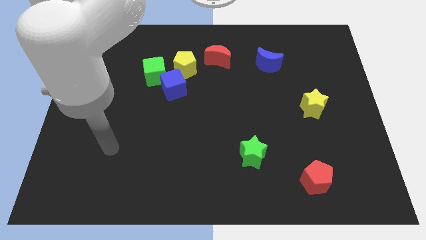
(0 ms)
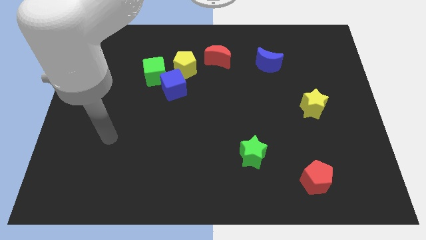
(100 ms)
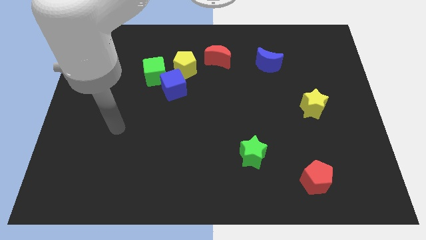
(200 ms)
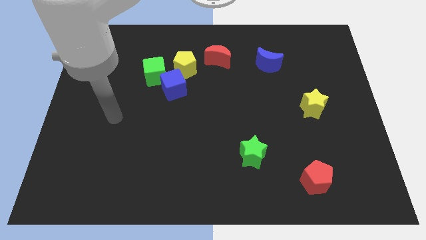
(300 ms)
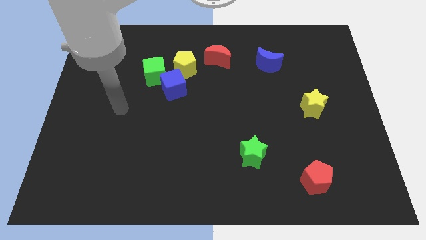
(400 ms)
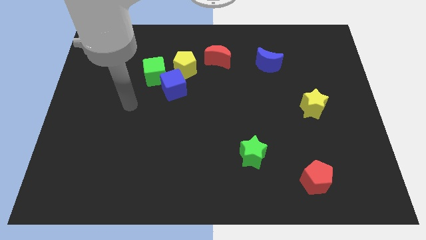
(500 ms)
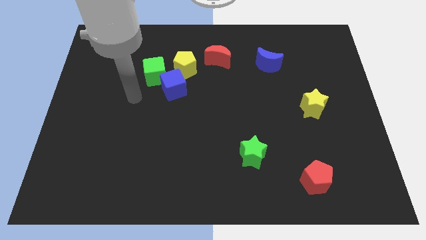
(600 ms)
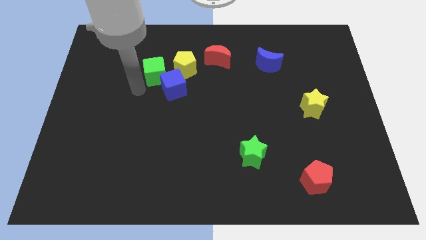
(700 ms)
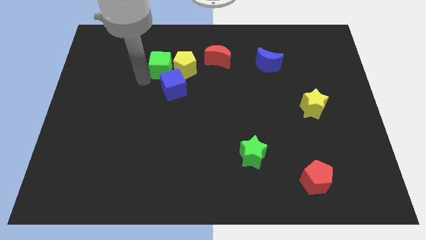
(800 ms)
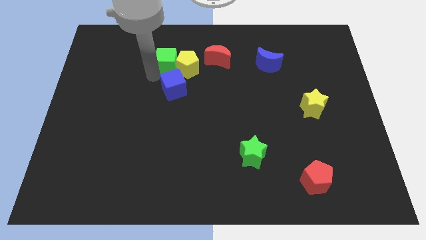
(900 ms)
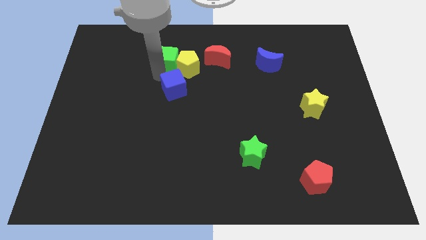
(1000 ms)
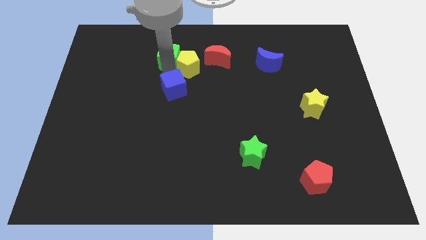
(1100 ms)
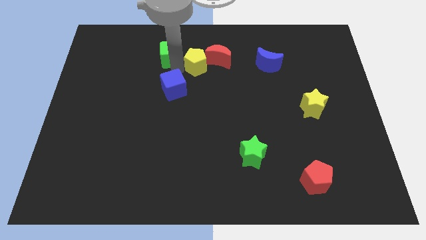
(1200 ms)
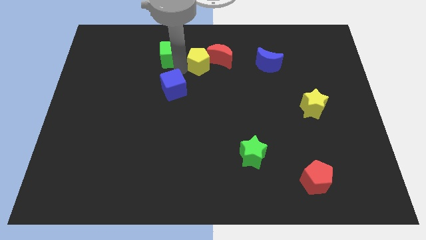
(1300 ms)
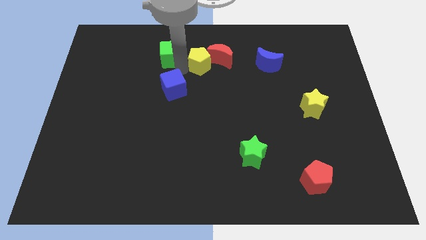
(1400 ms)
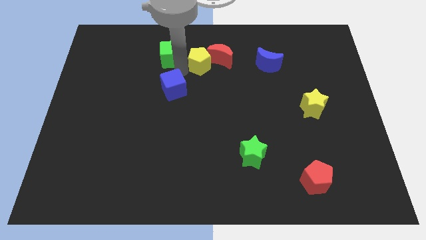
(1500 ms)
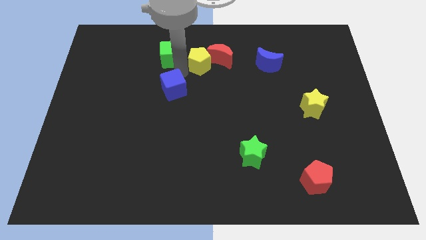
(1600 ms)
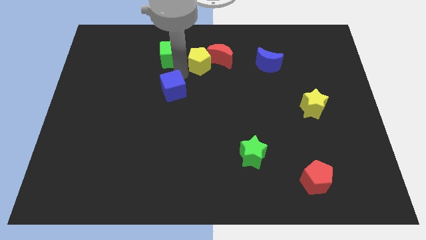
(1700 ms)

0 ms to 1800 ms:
move the blue cube away from the green cube and yellow pentagon

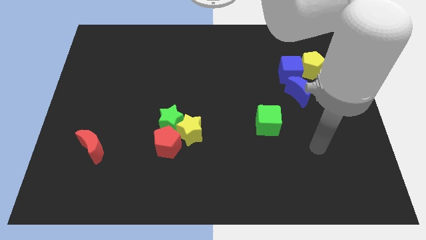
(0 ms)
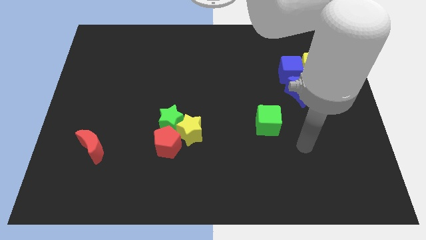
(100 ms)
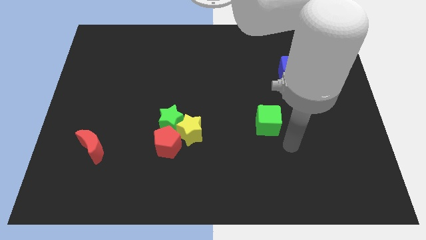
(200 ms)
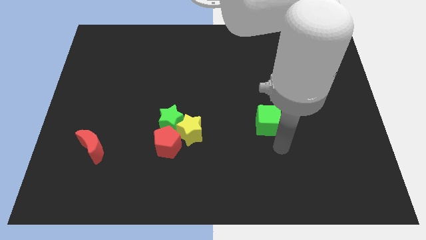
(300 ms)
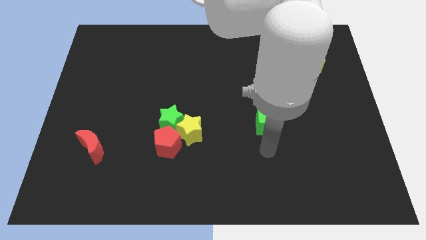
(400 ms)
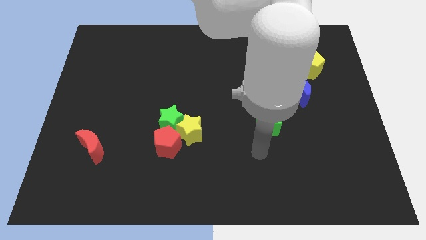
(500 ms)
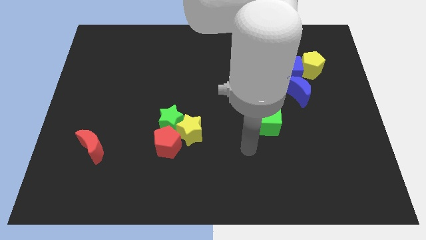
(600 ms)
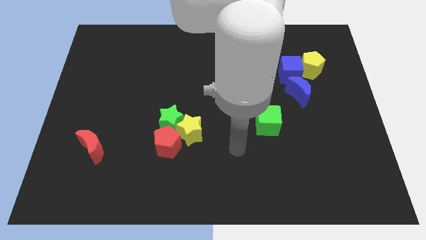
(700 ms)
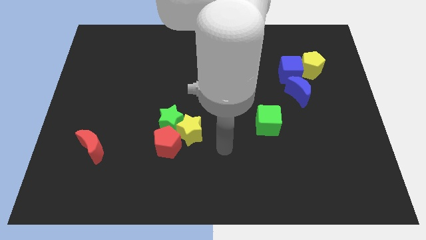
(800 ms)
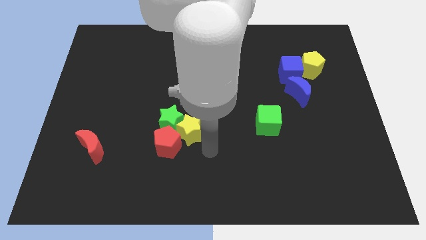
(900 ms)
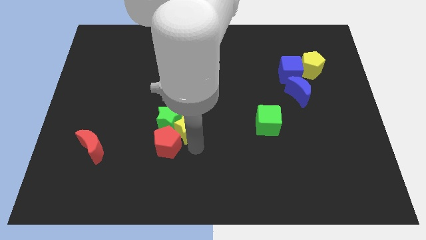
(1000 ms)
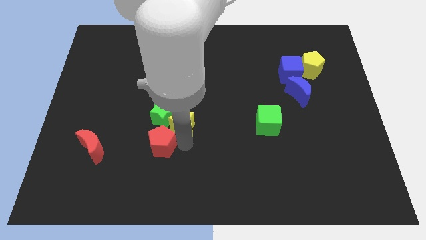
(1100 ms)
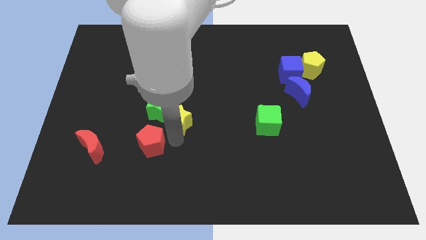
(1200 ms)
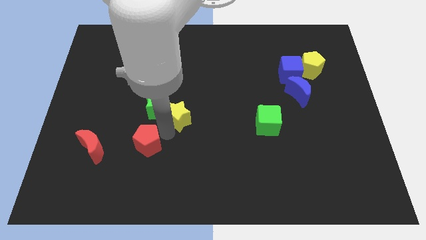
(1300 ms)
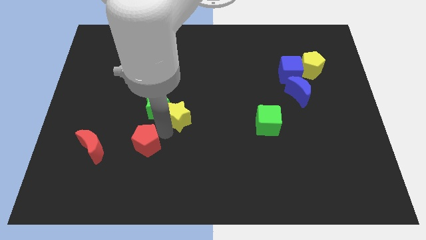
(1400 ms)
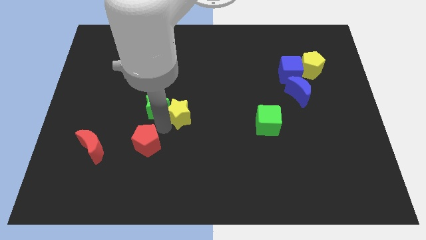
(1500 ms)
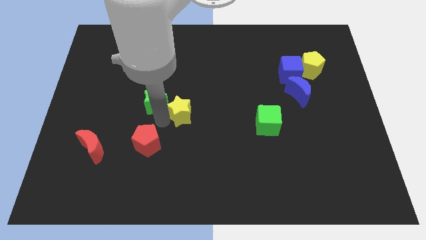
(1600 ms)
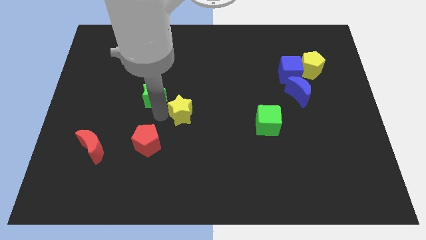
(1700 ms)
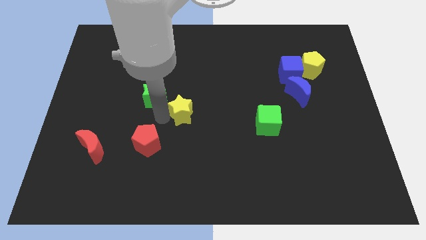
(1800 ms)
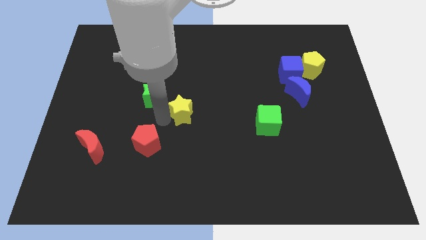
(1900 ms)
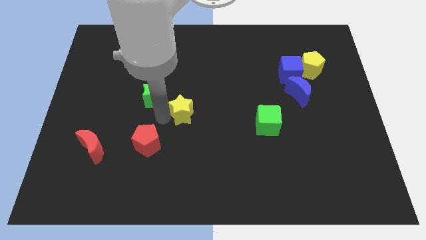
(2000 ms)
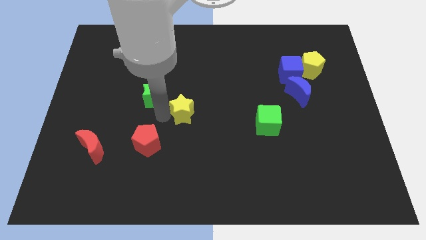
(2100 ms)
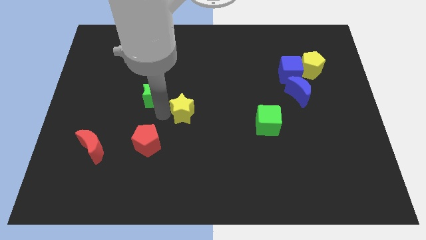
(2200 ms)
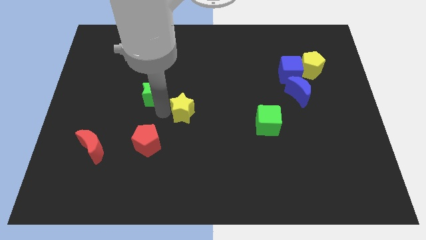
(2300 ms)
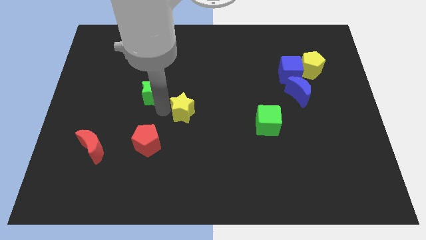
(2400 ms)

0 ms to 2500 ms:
separate the green star from the yellow star and red pentagon

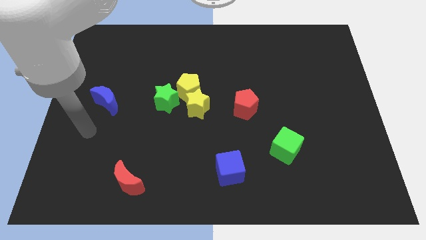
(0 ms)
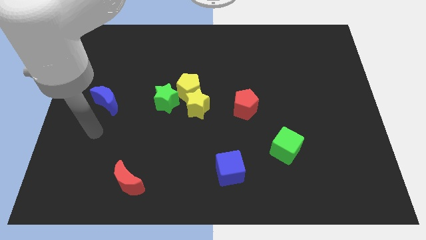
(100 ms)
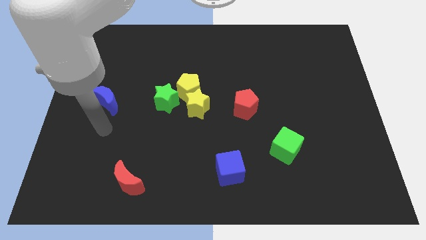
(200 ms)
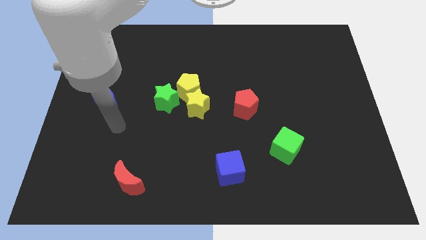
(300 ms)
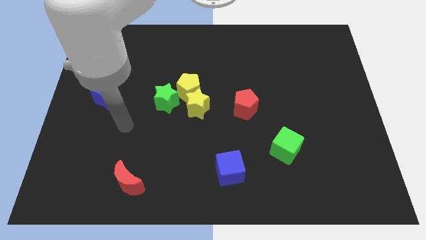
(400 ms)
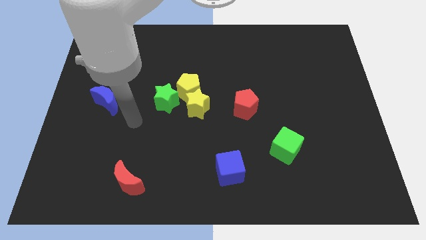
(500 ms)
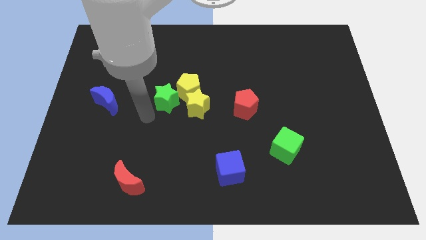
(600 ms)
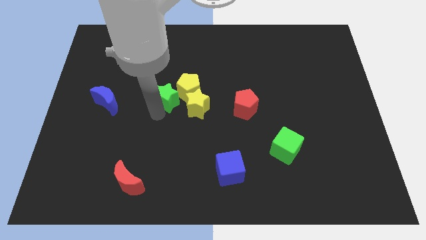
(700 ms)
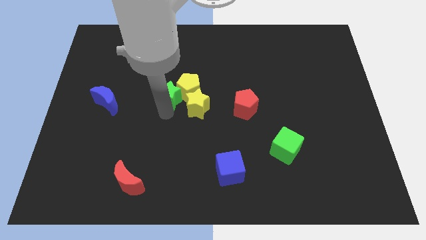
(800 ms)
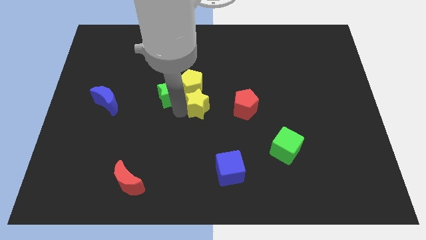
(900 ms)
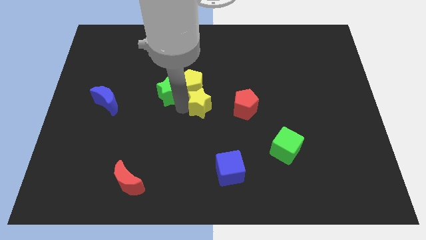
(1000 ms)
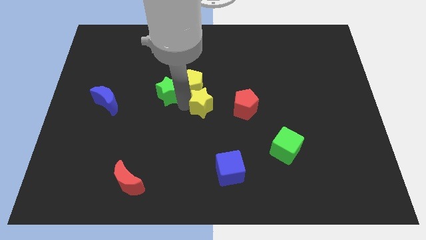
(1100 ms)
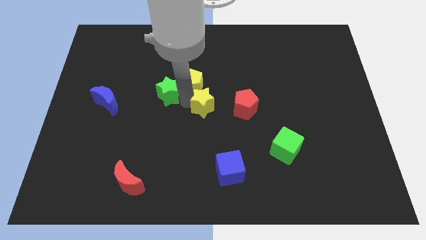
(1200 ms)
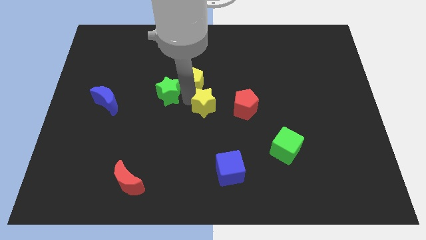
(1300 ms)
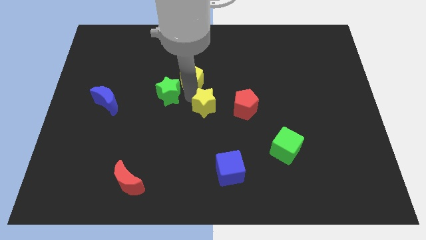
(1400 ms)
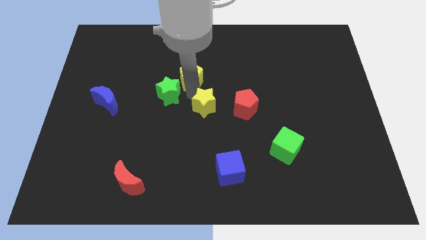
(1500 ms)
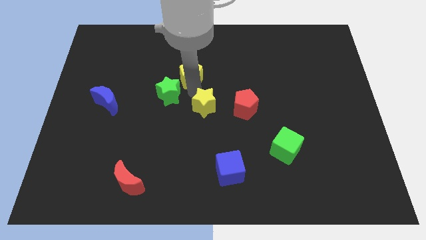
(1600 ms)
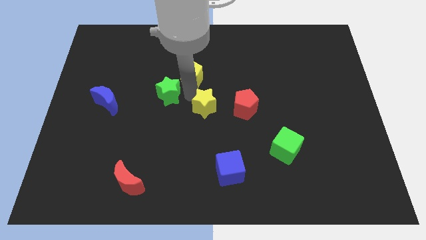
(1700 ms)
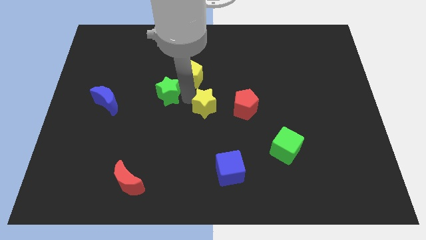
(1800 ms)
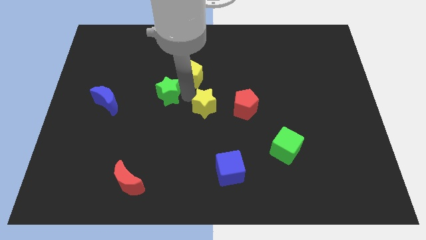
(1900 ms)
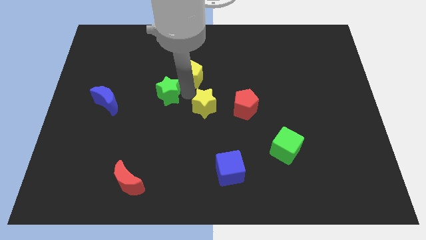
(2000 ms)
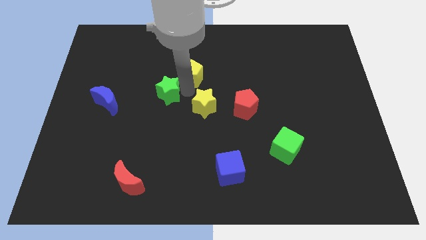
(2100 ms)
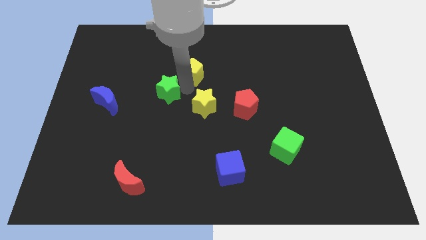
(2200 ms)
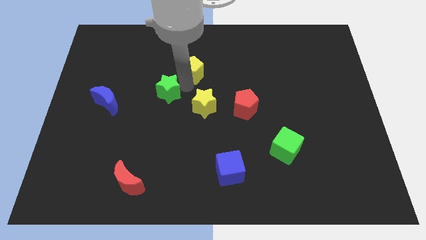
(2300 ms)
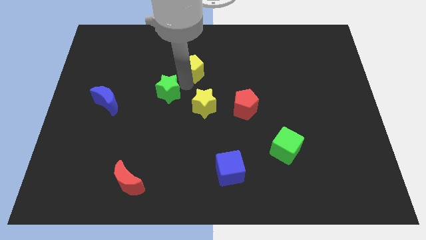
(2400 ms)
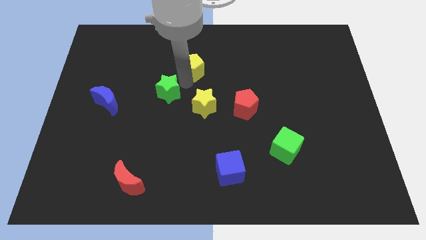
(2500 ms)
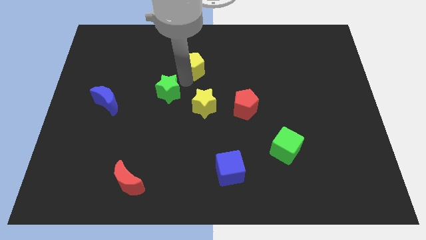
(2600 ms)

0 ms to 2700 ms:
move the yellow pentagon away from the yellow star and green star

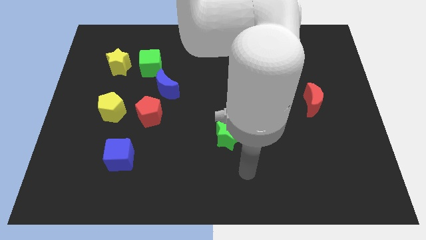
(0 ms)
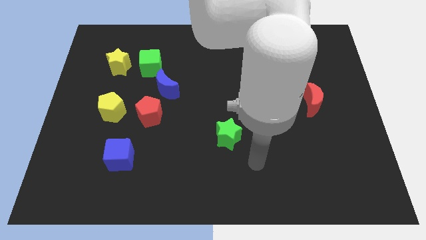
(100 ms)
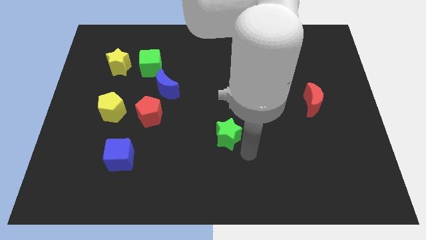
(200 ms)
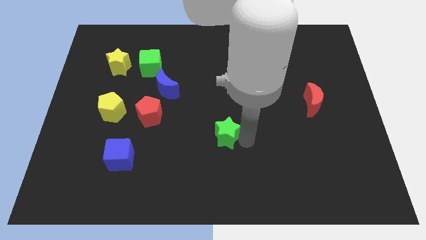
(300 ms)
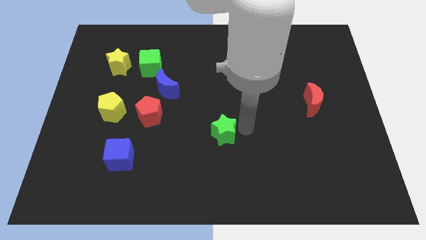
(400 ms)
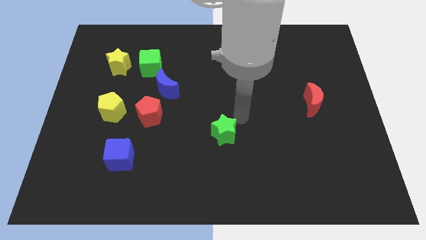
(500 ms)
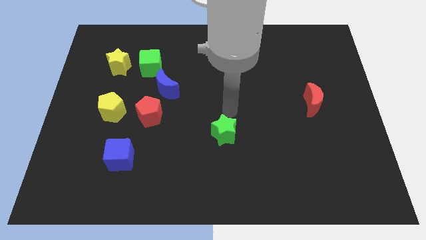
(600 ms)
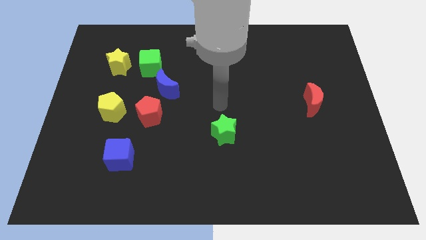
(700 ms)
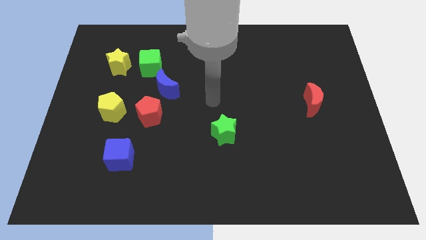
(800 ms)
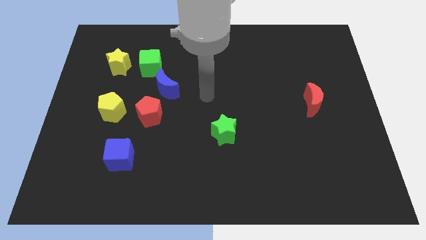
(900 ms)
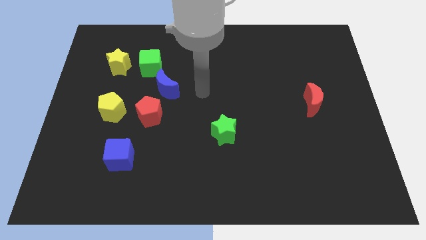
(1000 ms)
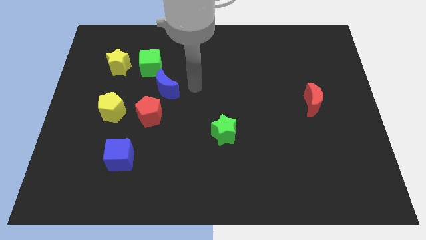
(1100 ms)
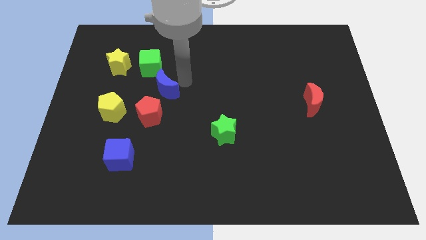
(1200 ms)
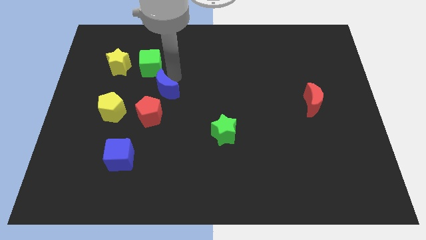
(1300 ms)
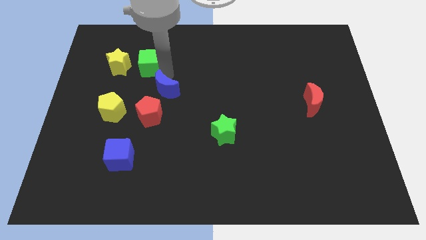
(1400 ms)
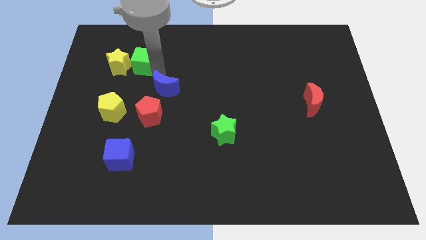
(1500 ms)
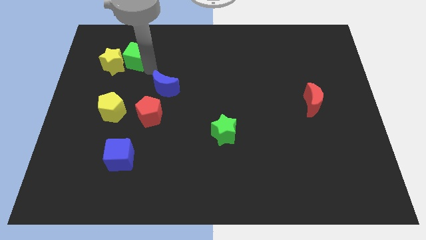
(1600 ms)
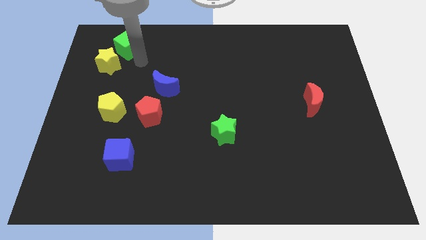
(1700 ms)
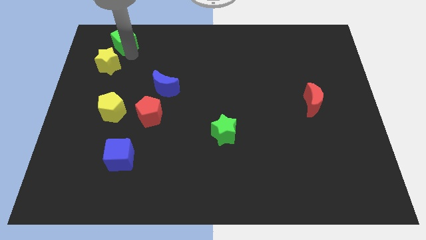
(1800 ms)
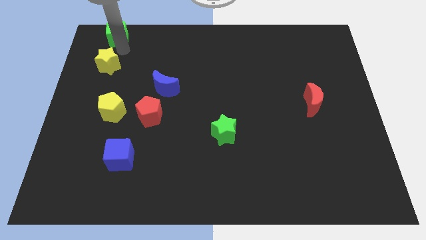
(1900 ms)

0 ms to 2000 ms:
separate the yellow star from the green cube

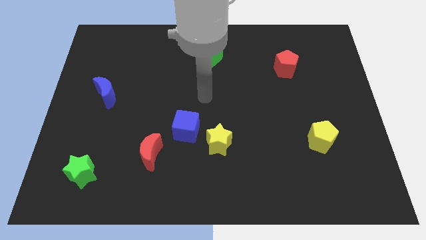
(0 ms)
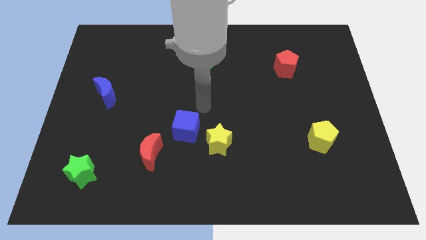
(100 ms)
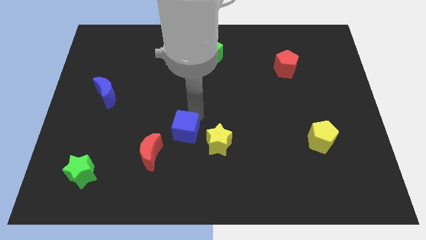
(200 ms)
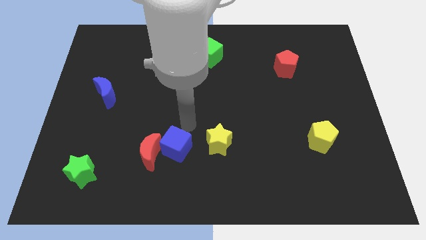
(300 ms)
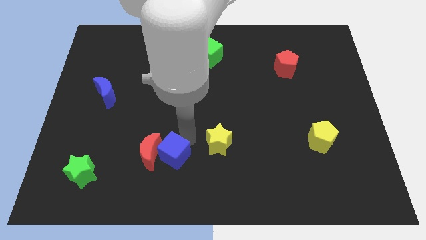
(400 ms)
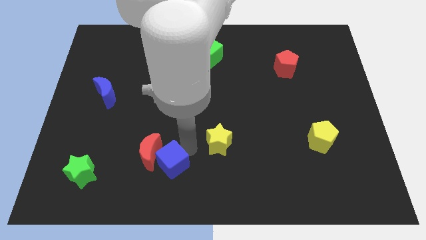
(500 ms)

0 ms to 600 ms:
separate the yellow star from the blue cube
